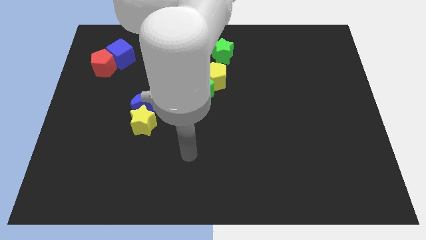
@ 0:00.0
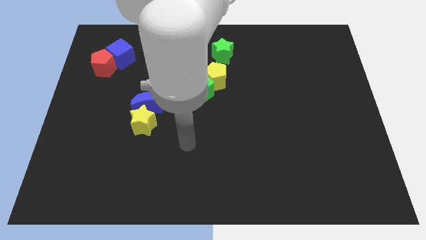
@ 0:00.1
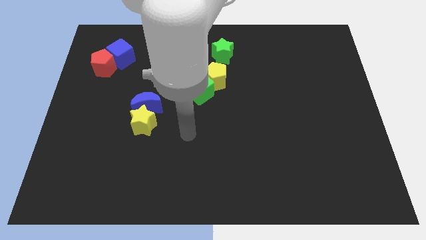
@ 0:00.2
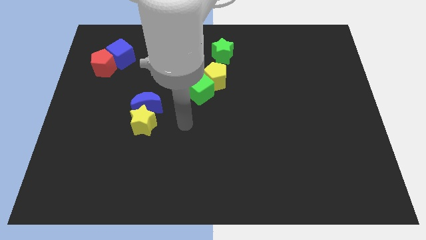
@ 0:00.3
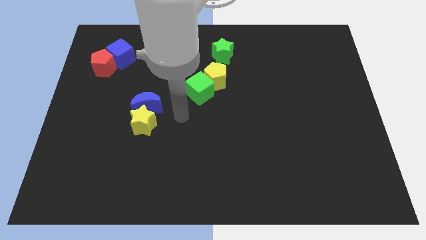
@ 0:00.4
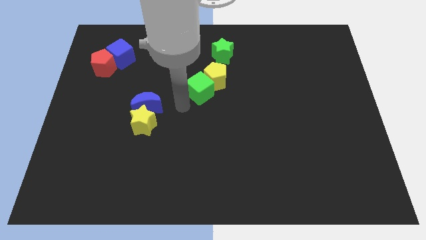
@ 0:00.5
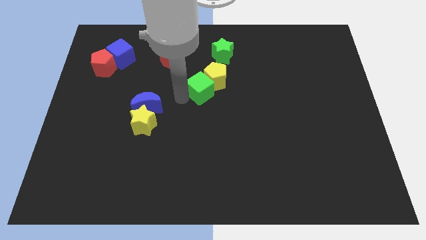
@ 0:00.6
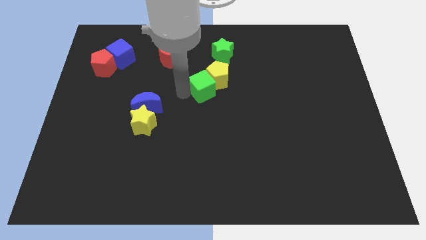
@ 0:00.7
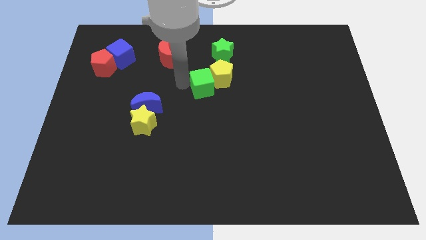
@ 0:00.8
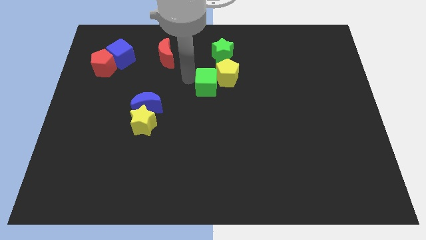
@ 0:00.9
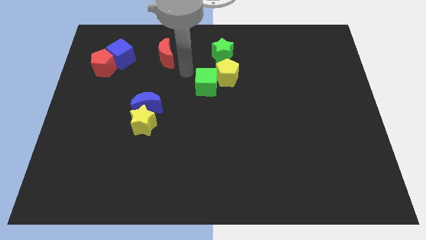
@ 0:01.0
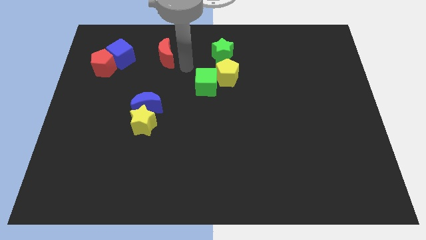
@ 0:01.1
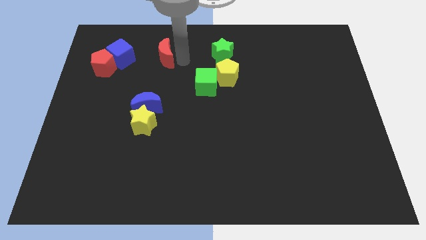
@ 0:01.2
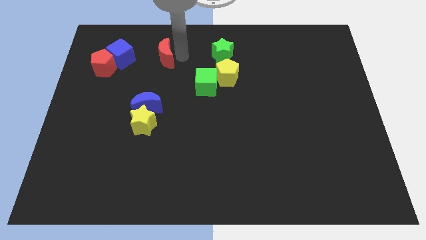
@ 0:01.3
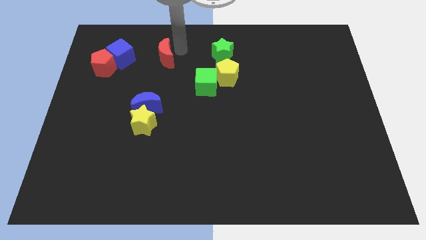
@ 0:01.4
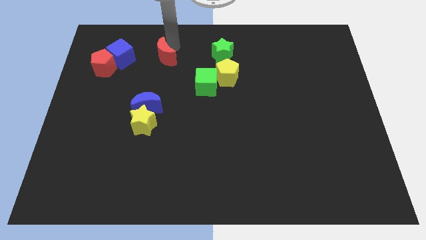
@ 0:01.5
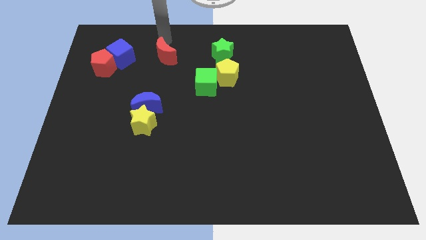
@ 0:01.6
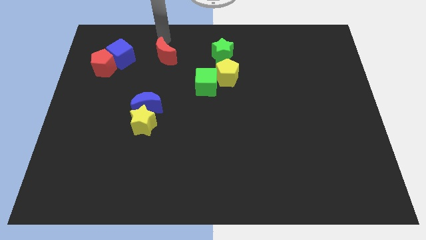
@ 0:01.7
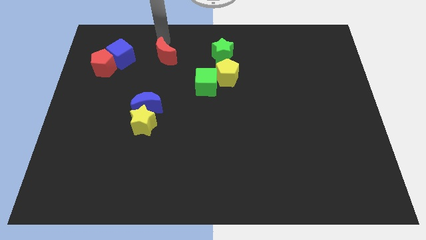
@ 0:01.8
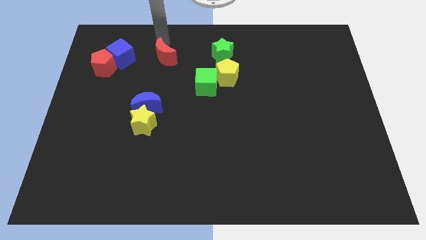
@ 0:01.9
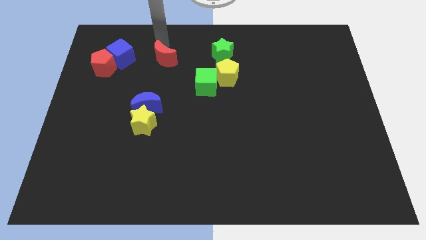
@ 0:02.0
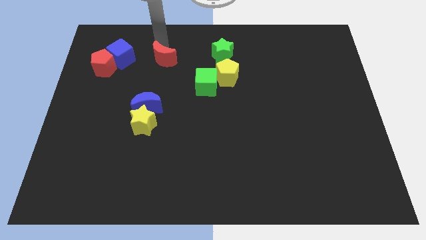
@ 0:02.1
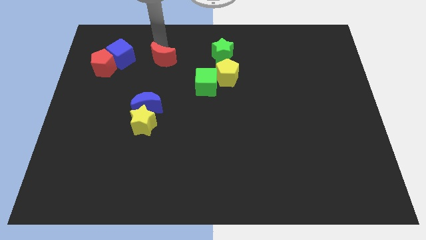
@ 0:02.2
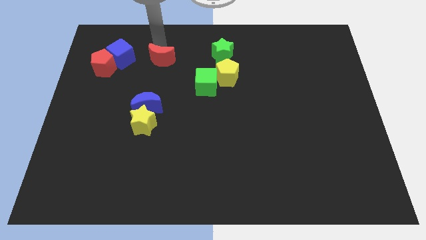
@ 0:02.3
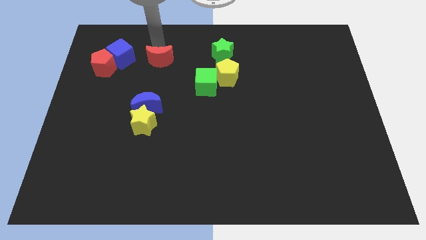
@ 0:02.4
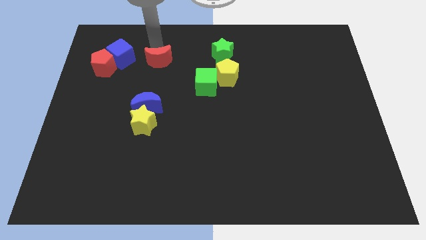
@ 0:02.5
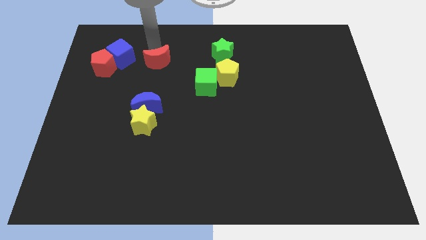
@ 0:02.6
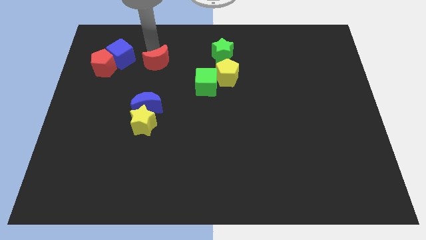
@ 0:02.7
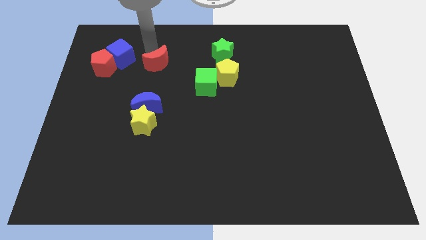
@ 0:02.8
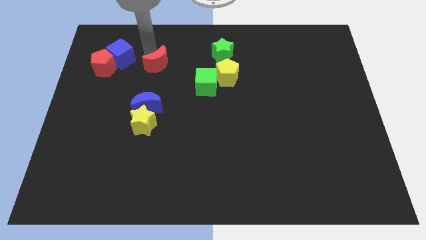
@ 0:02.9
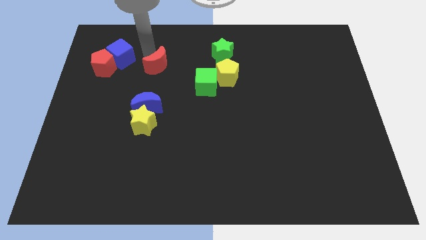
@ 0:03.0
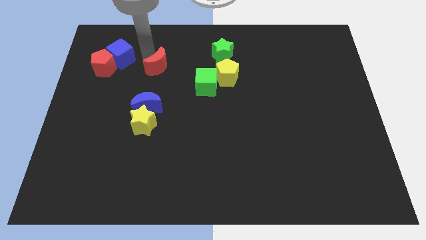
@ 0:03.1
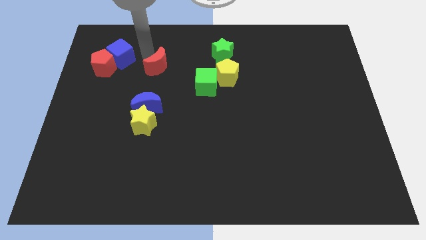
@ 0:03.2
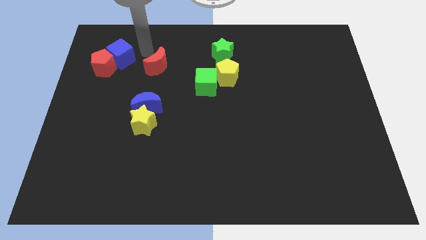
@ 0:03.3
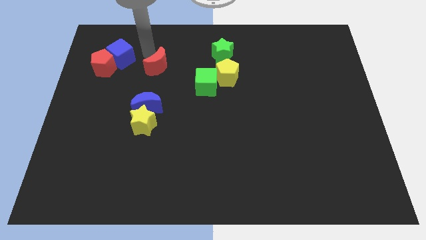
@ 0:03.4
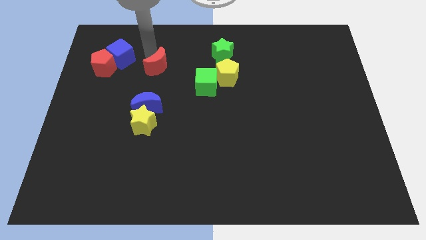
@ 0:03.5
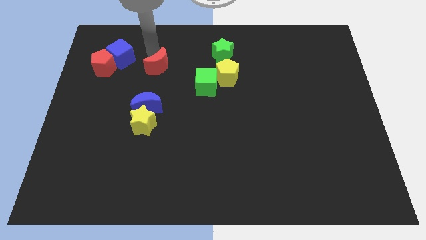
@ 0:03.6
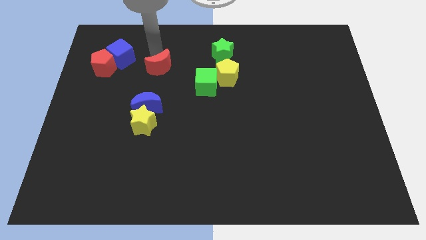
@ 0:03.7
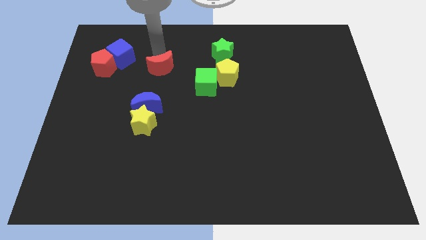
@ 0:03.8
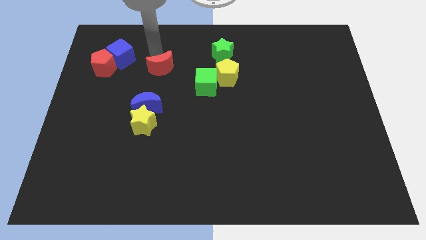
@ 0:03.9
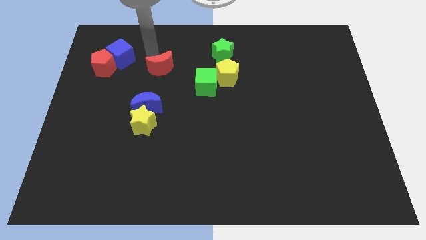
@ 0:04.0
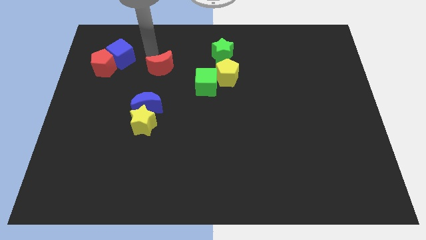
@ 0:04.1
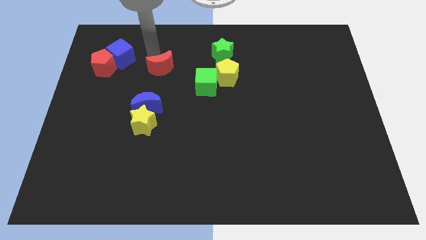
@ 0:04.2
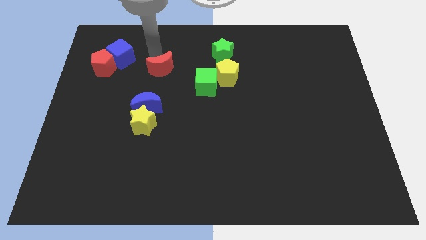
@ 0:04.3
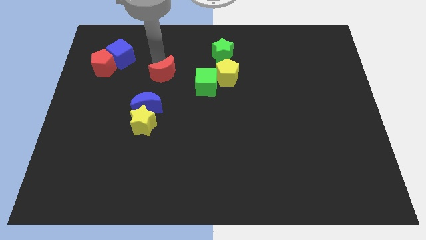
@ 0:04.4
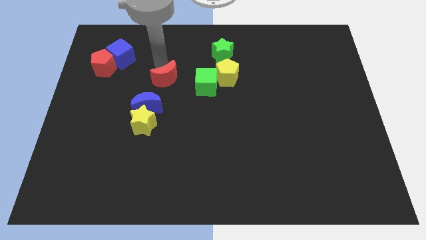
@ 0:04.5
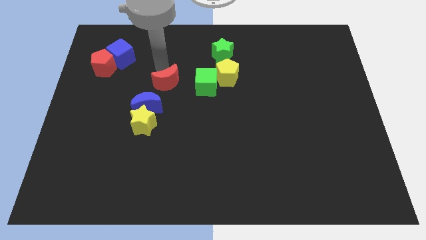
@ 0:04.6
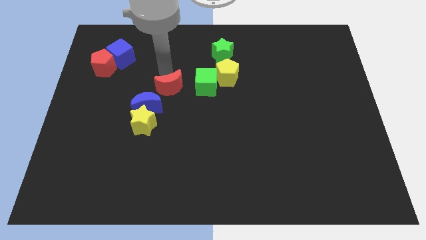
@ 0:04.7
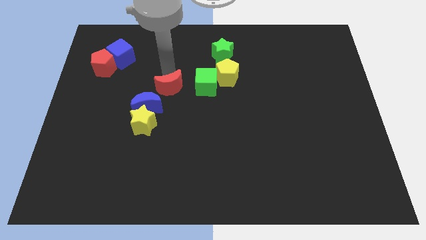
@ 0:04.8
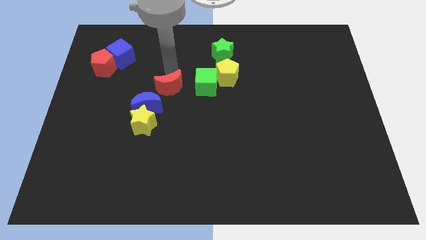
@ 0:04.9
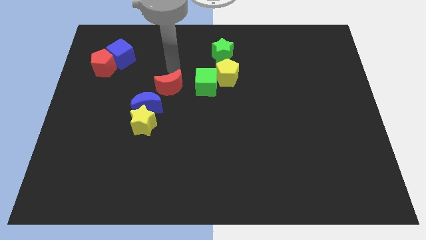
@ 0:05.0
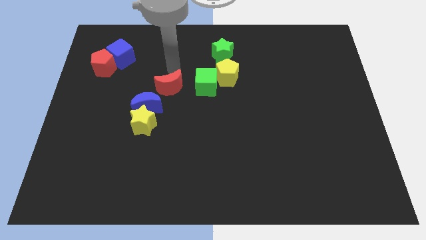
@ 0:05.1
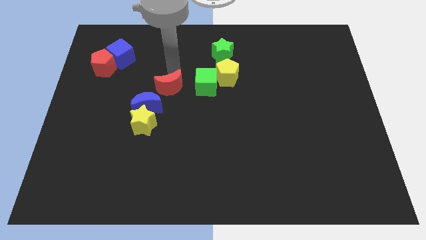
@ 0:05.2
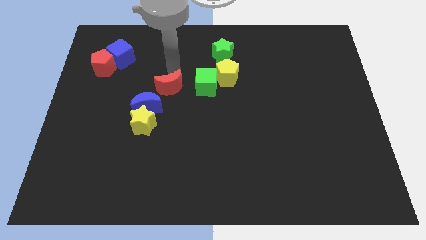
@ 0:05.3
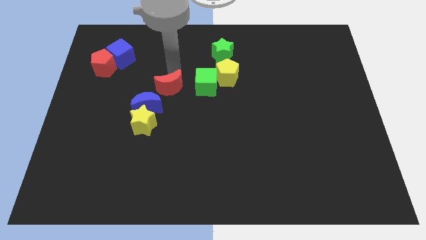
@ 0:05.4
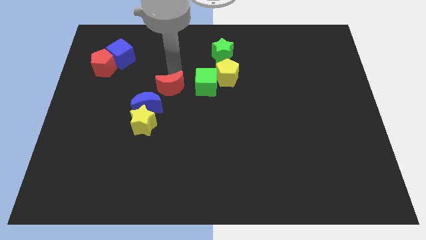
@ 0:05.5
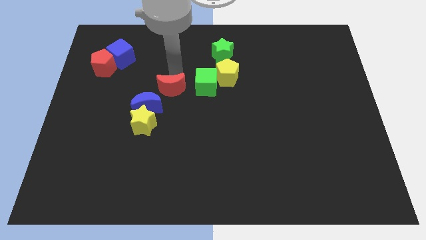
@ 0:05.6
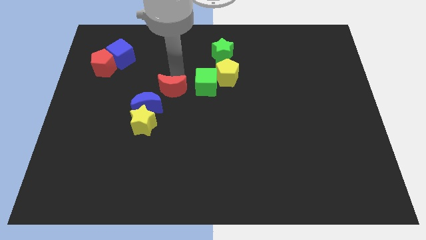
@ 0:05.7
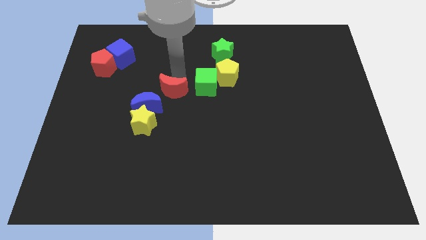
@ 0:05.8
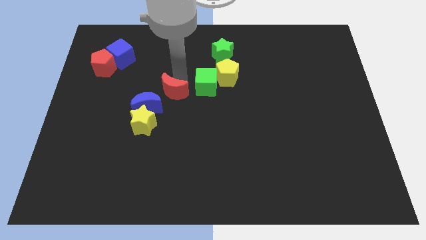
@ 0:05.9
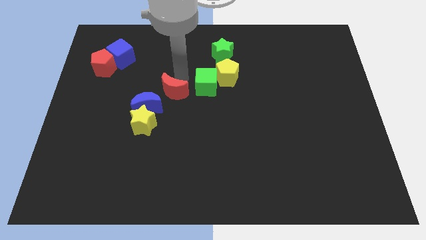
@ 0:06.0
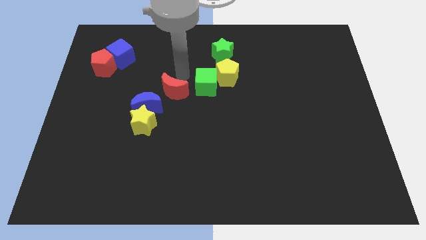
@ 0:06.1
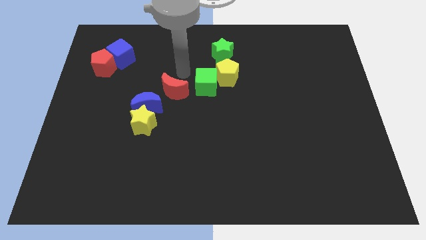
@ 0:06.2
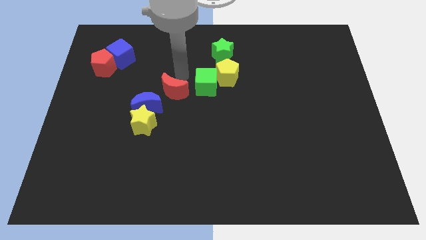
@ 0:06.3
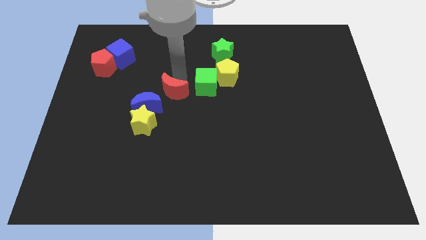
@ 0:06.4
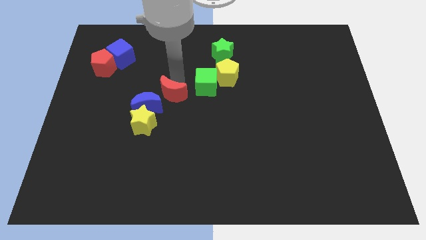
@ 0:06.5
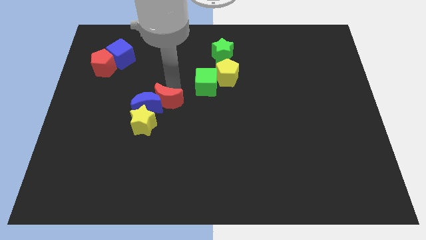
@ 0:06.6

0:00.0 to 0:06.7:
put the red moon to the bottom right of the blue moon

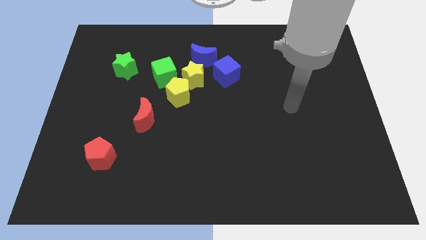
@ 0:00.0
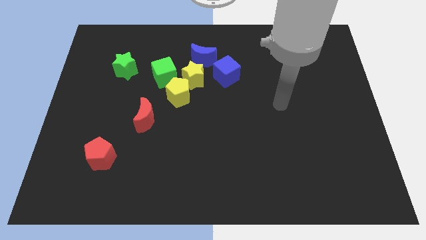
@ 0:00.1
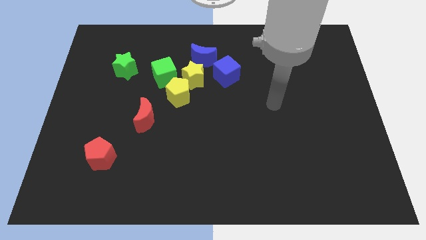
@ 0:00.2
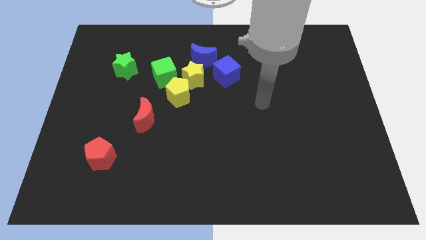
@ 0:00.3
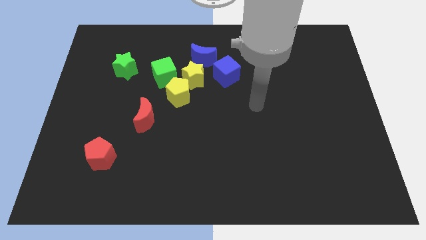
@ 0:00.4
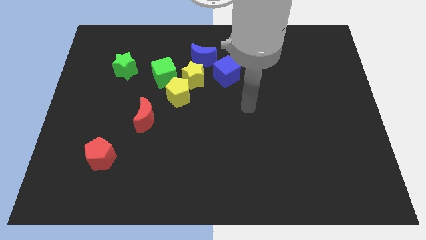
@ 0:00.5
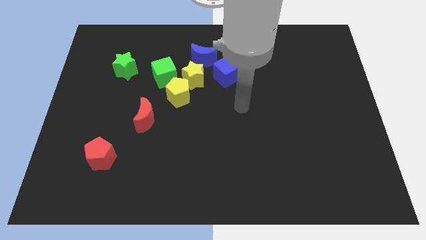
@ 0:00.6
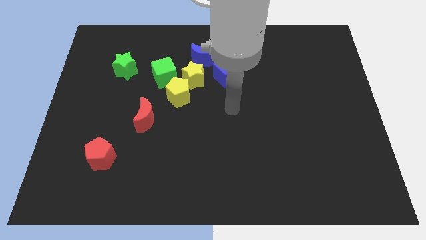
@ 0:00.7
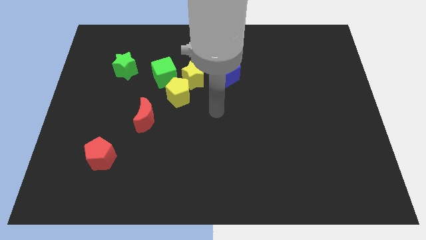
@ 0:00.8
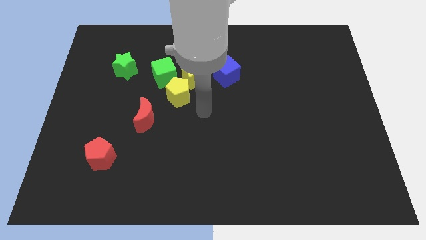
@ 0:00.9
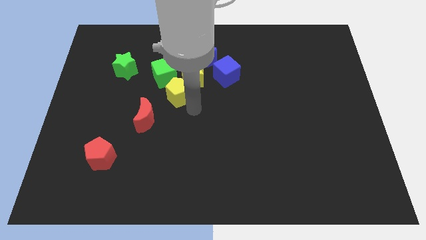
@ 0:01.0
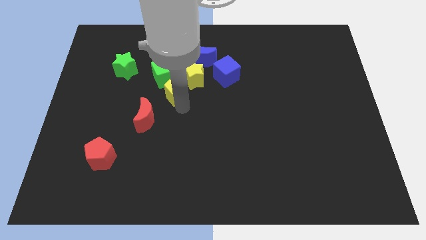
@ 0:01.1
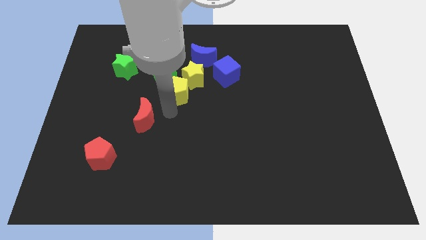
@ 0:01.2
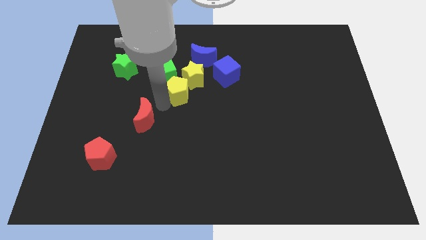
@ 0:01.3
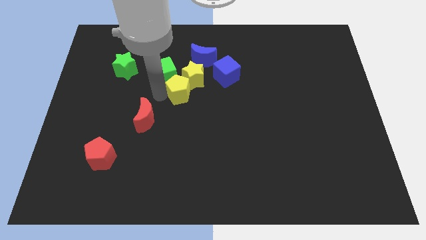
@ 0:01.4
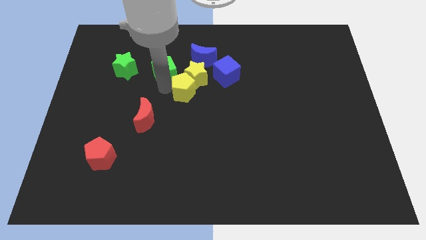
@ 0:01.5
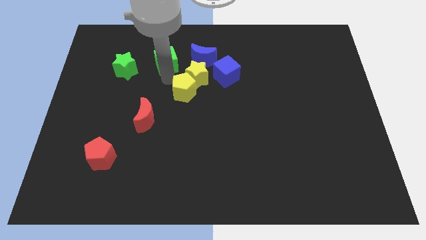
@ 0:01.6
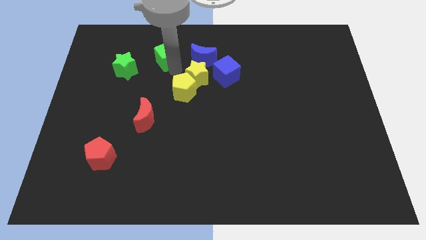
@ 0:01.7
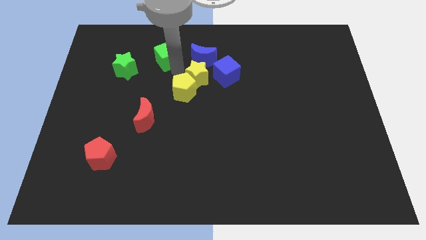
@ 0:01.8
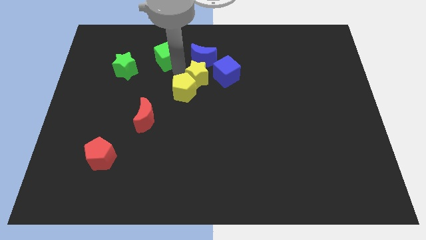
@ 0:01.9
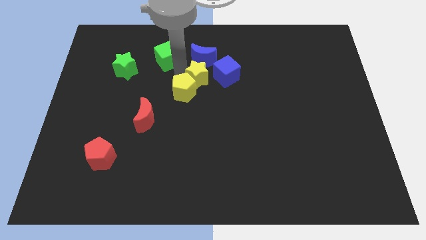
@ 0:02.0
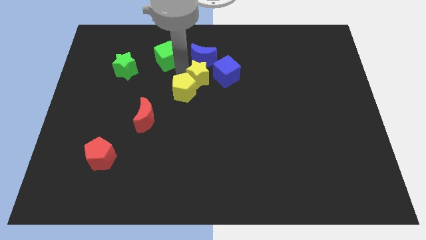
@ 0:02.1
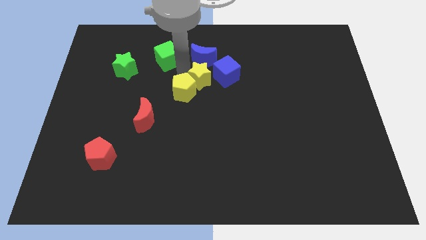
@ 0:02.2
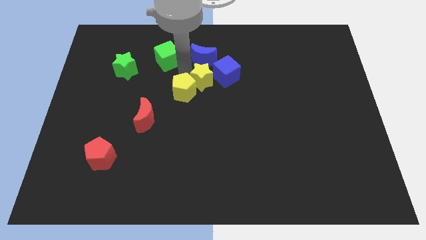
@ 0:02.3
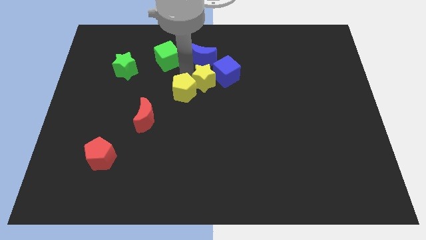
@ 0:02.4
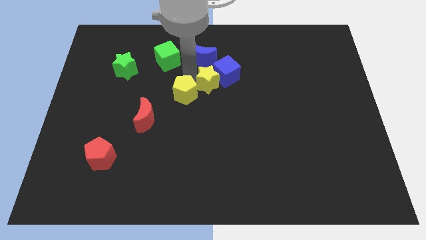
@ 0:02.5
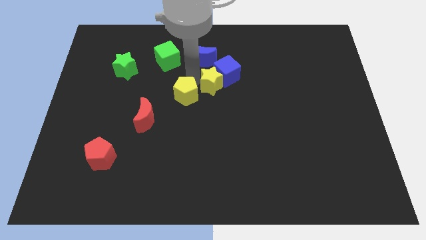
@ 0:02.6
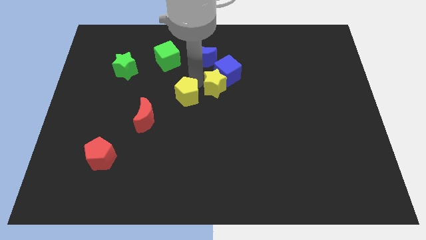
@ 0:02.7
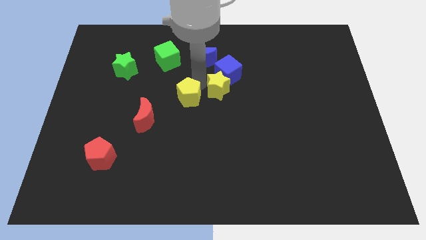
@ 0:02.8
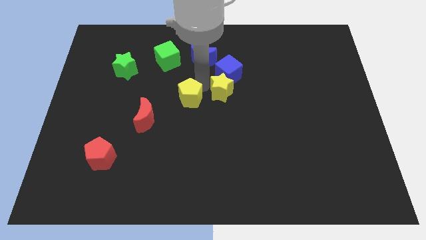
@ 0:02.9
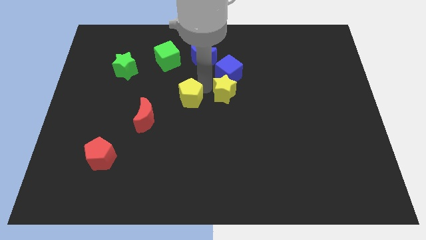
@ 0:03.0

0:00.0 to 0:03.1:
move the yellow star to the bottom right of the blue cube
